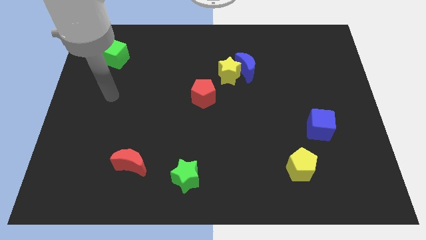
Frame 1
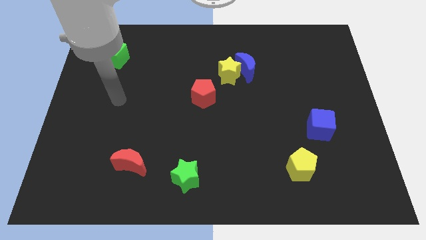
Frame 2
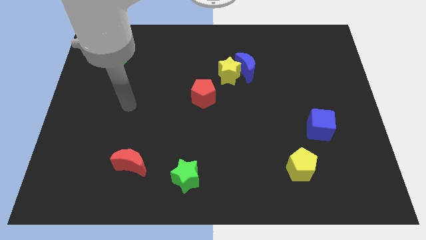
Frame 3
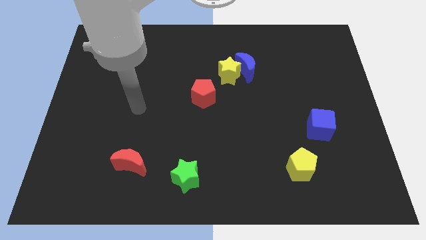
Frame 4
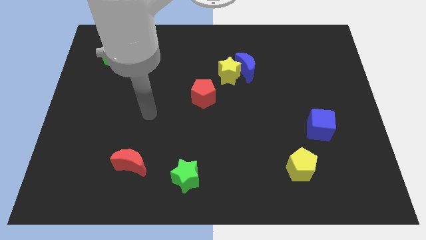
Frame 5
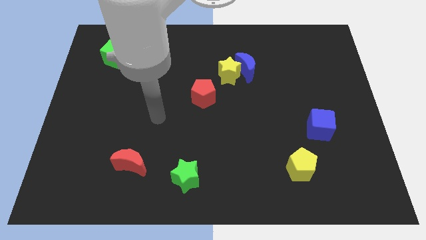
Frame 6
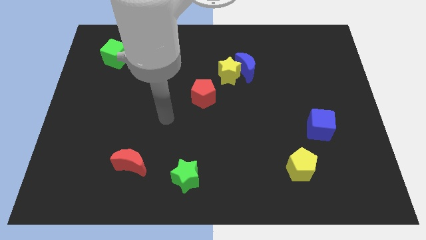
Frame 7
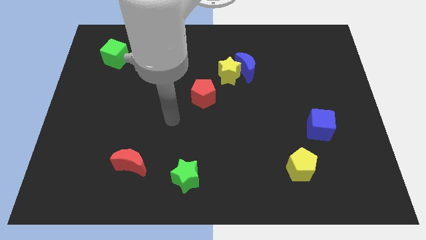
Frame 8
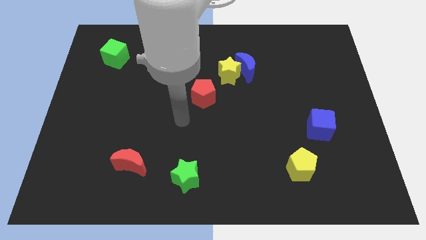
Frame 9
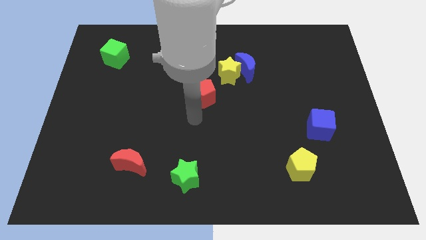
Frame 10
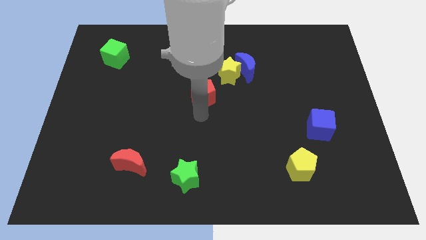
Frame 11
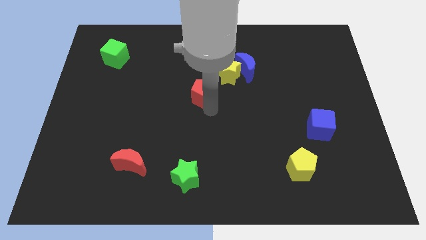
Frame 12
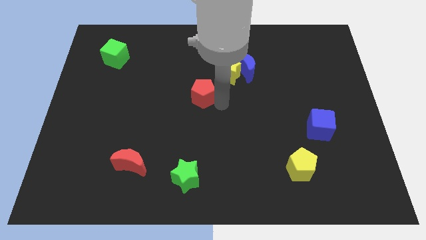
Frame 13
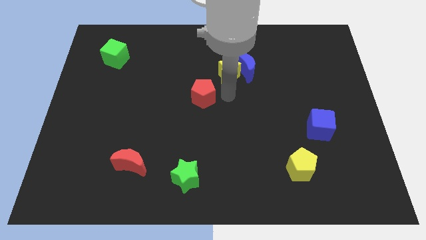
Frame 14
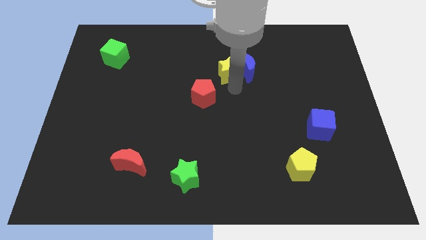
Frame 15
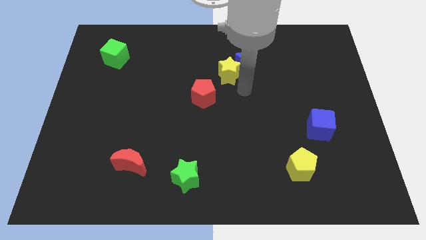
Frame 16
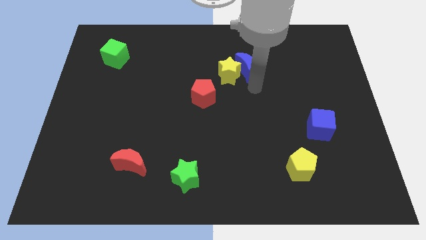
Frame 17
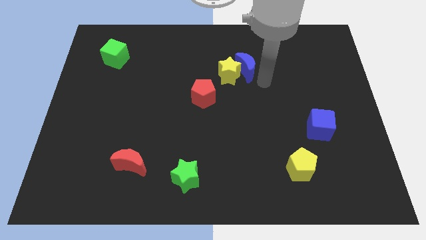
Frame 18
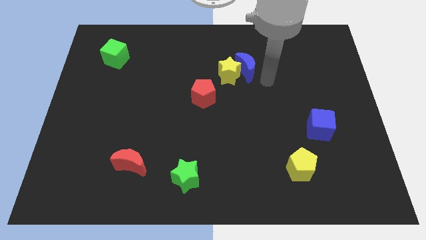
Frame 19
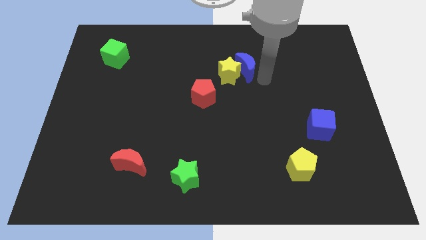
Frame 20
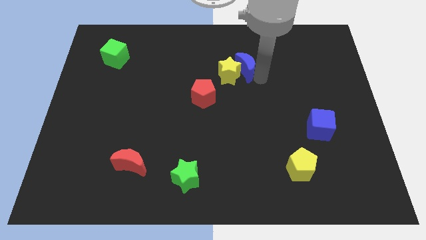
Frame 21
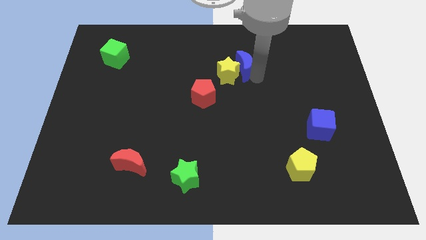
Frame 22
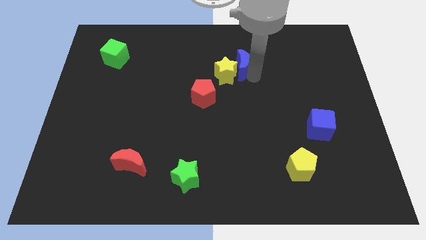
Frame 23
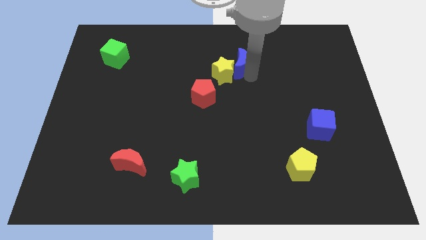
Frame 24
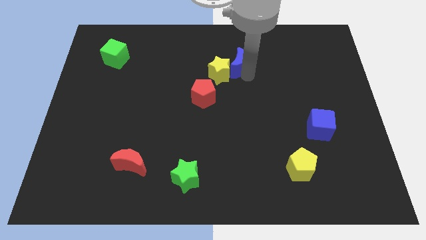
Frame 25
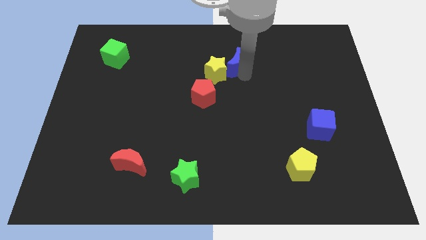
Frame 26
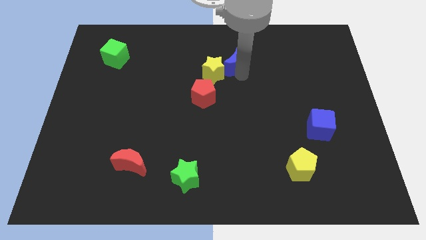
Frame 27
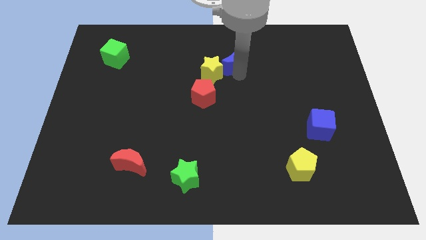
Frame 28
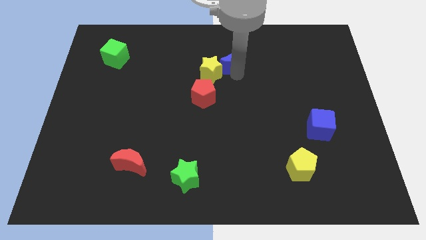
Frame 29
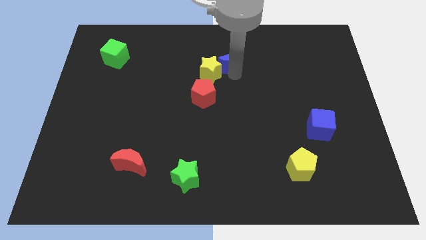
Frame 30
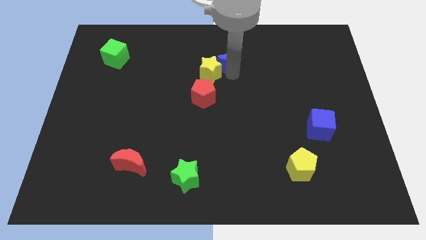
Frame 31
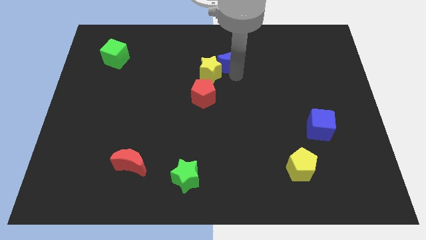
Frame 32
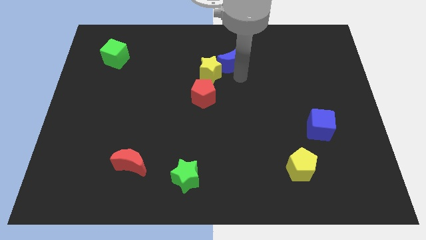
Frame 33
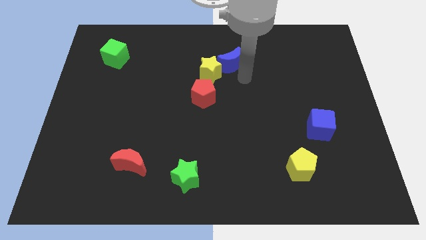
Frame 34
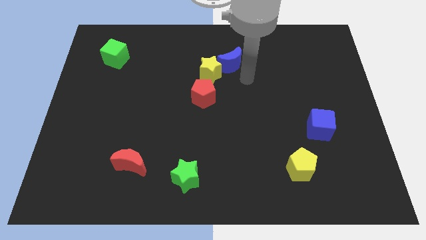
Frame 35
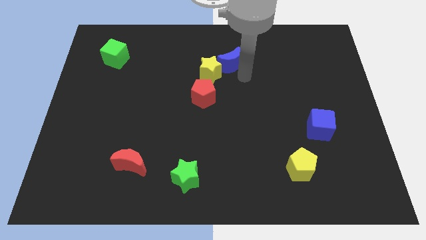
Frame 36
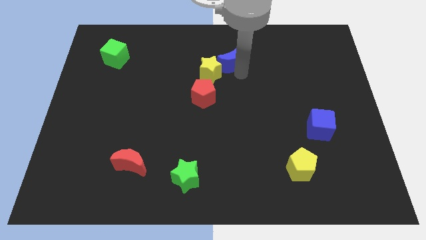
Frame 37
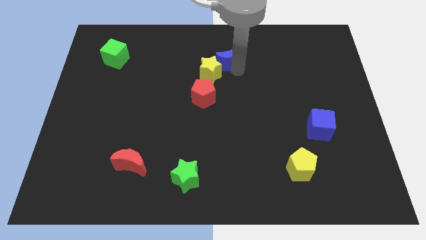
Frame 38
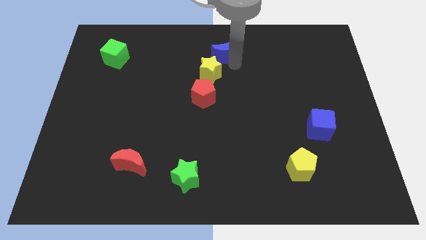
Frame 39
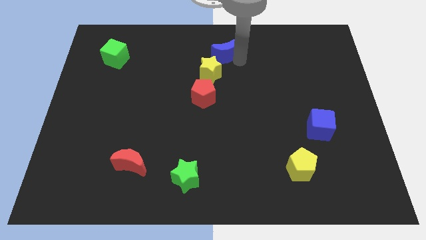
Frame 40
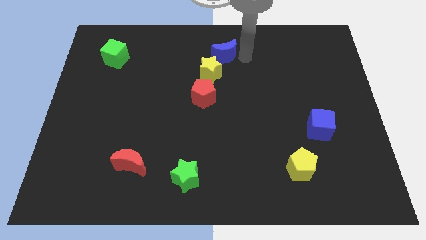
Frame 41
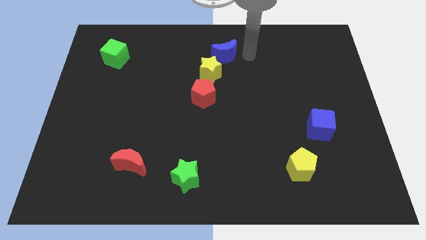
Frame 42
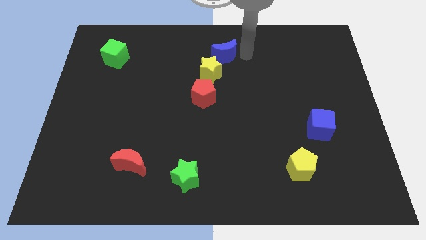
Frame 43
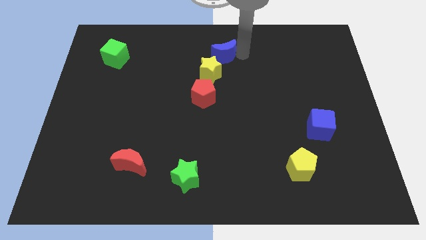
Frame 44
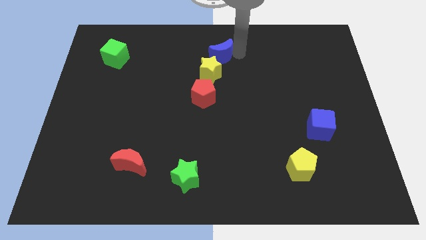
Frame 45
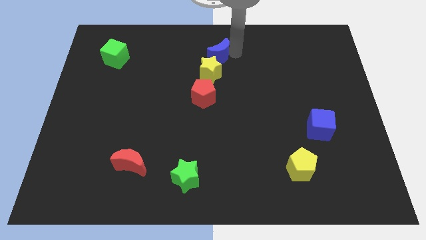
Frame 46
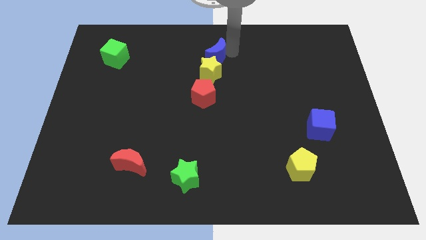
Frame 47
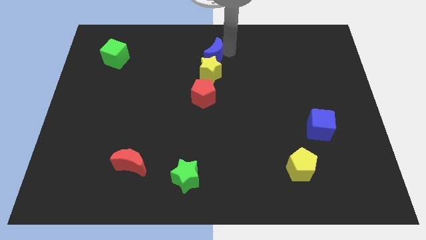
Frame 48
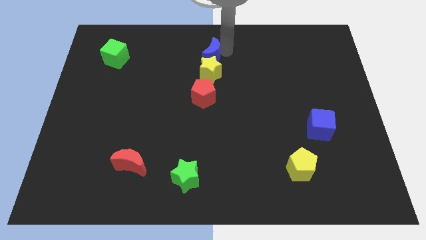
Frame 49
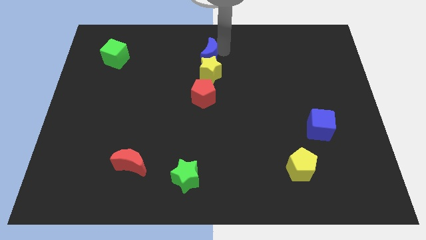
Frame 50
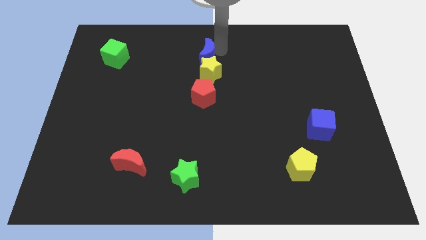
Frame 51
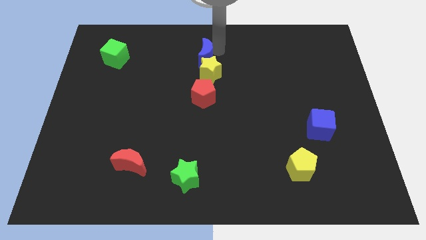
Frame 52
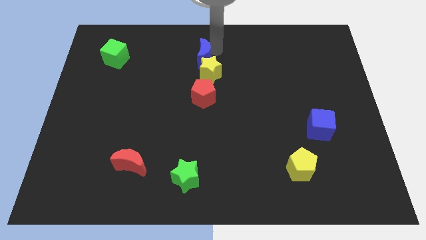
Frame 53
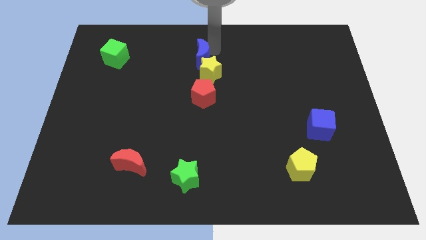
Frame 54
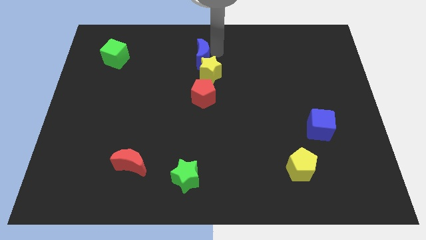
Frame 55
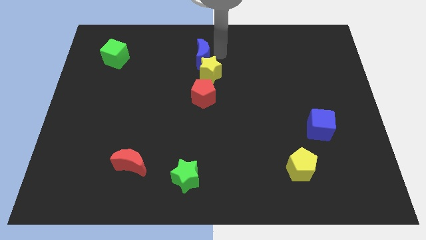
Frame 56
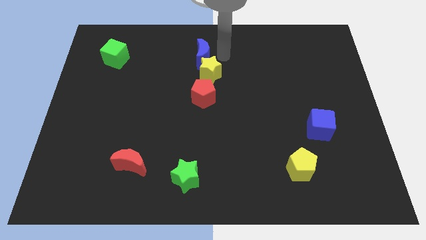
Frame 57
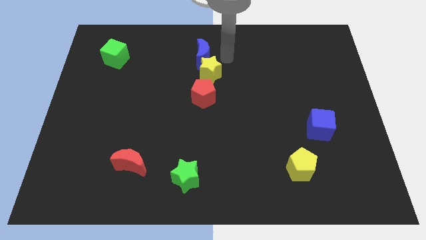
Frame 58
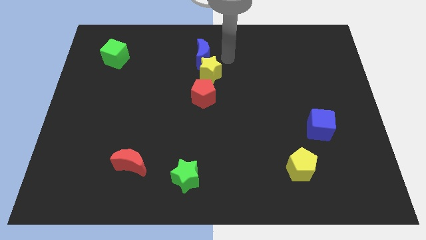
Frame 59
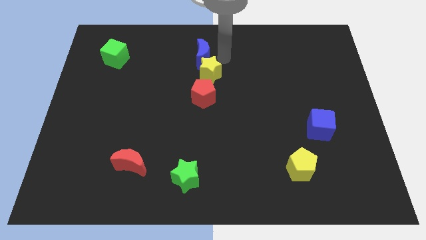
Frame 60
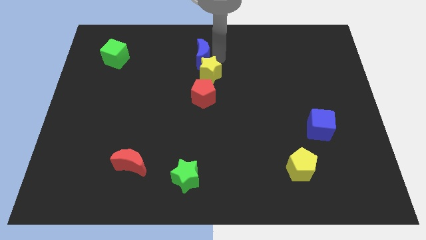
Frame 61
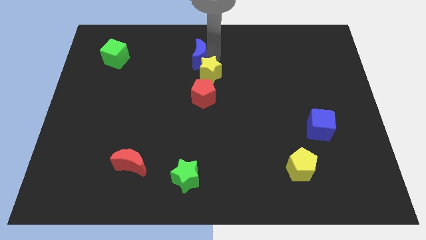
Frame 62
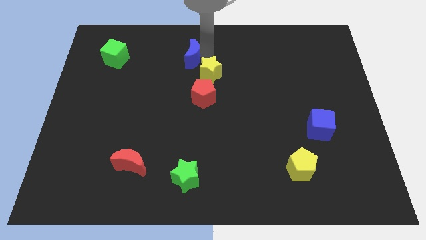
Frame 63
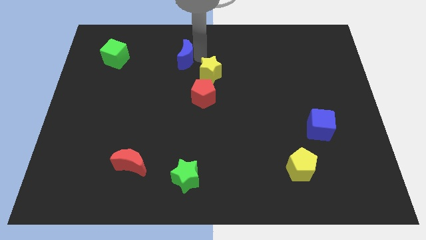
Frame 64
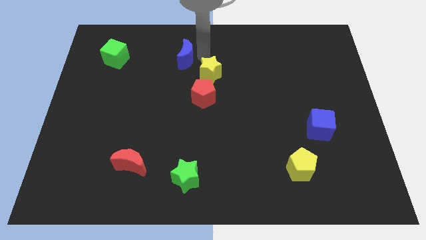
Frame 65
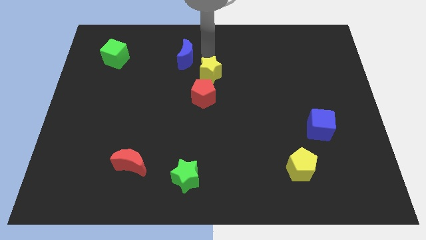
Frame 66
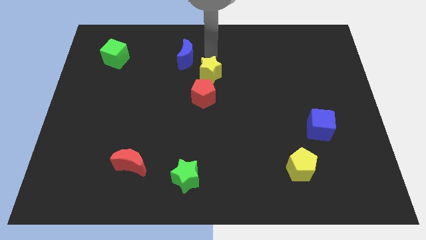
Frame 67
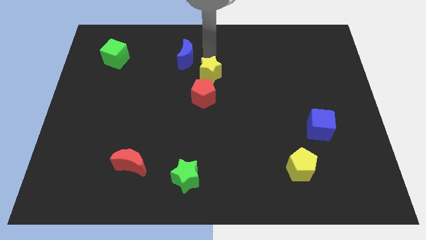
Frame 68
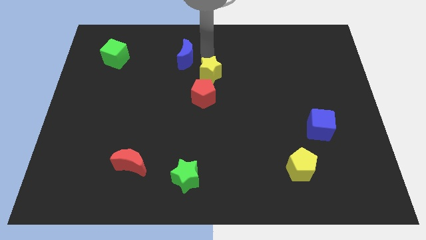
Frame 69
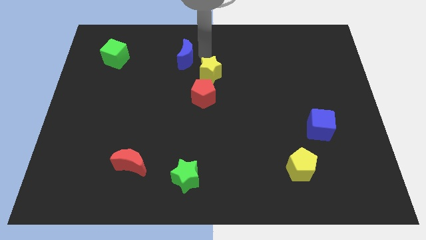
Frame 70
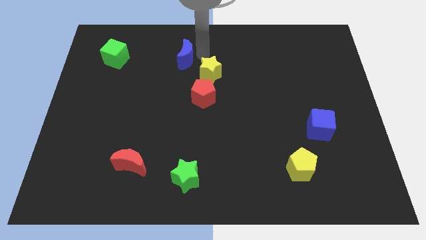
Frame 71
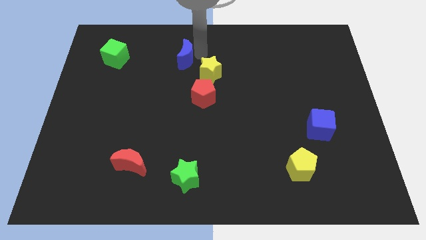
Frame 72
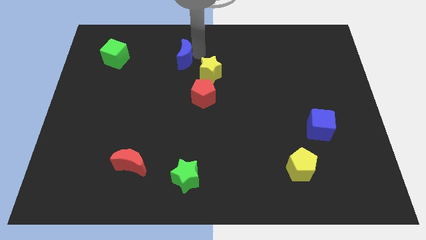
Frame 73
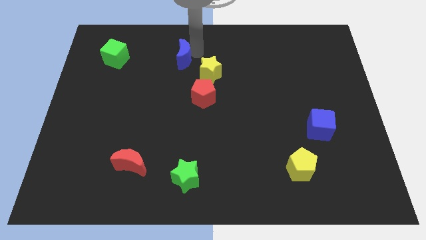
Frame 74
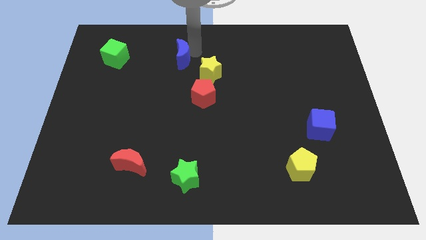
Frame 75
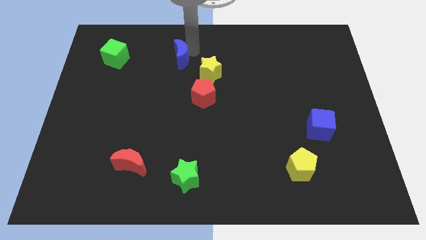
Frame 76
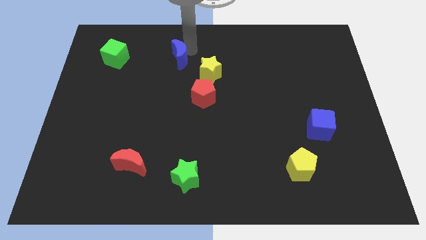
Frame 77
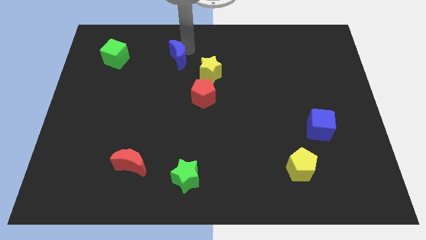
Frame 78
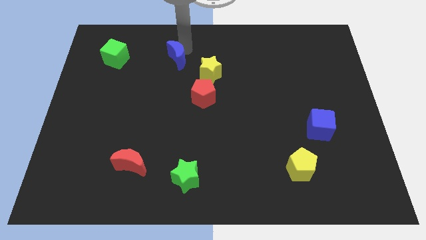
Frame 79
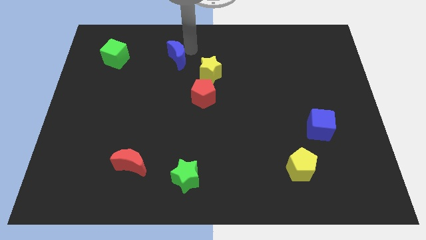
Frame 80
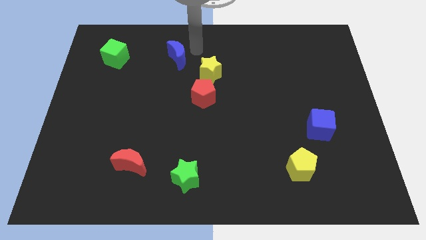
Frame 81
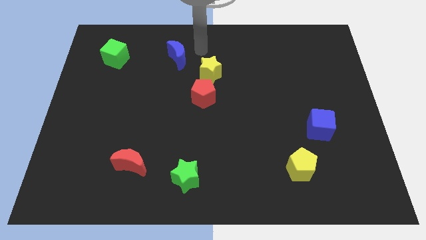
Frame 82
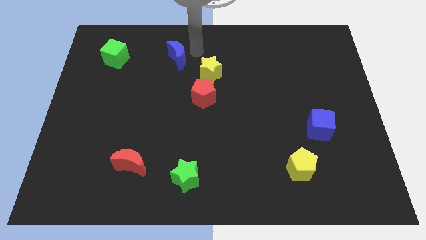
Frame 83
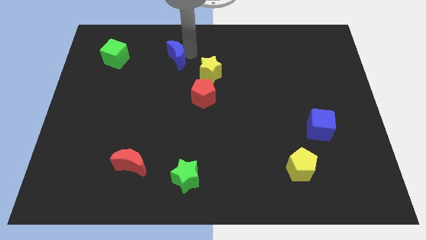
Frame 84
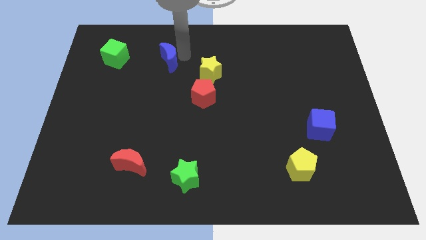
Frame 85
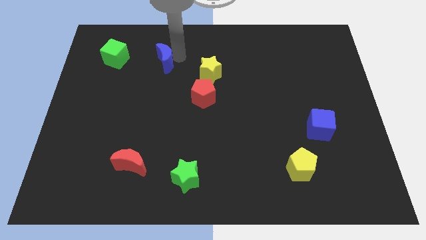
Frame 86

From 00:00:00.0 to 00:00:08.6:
slide the blue moon left
